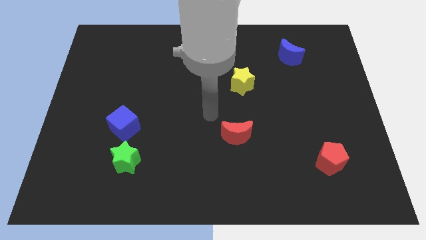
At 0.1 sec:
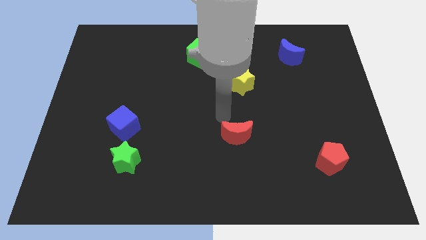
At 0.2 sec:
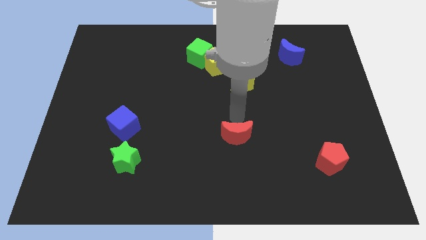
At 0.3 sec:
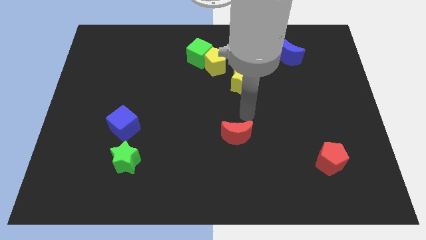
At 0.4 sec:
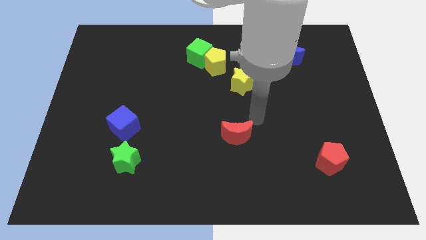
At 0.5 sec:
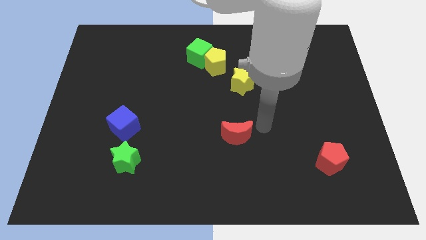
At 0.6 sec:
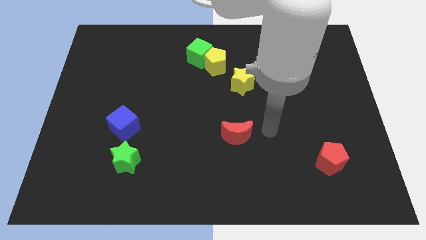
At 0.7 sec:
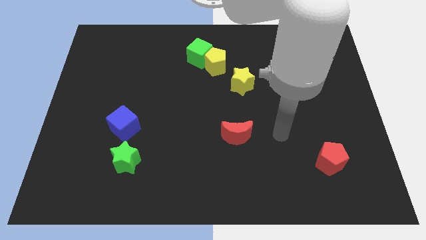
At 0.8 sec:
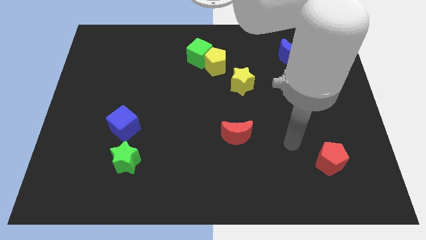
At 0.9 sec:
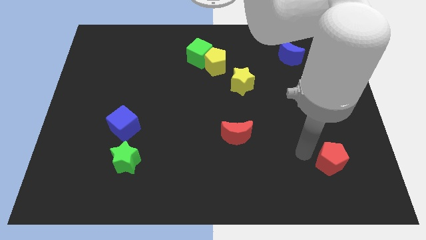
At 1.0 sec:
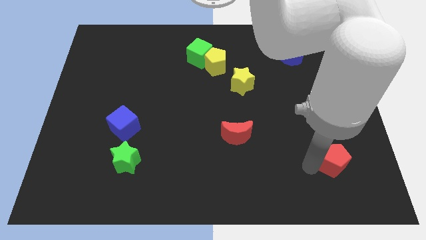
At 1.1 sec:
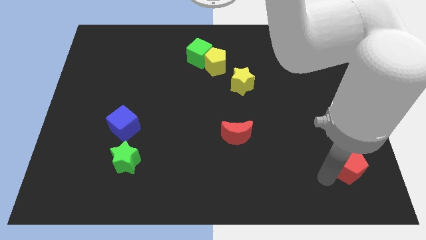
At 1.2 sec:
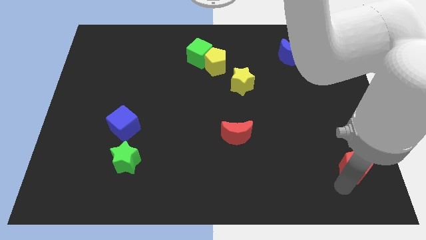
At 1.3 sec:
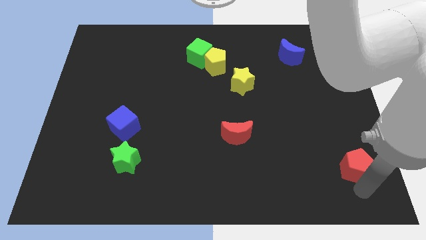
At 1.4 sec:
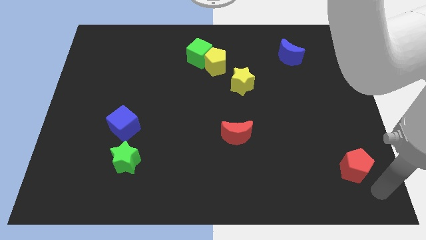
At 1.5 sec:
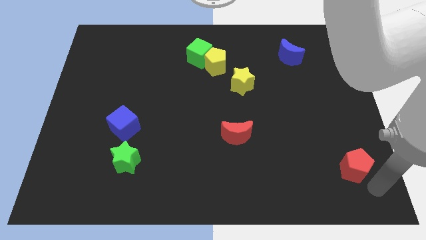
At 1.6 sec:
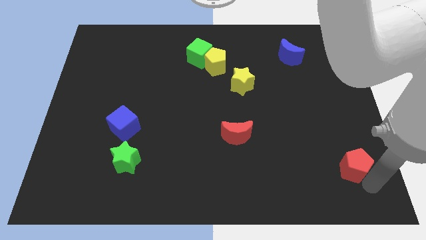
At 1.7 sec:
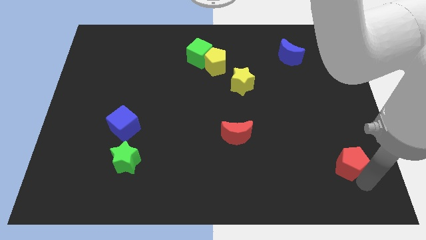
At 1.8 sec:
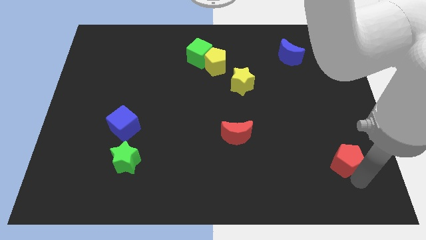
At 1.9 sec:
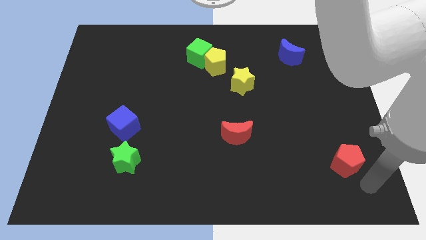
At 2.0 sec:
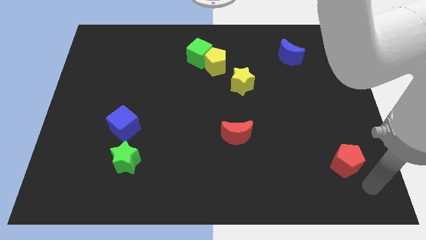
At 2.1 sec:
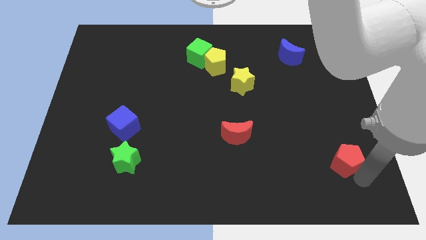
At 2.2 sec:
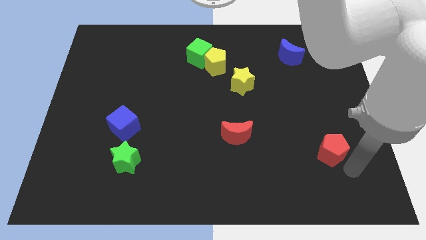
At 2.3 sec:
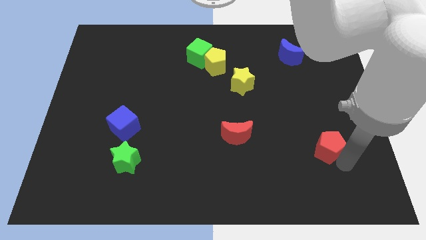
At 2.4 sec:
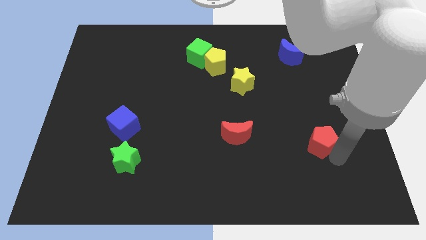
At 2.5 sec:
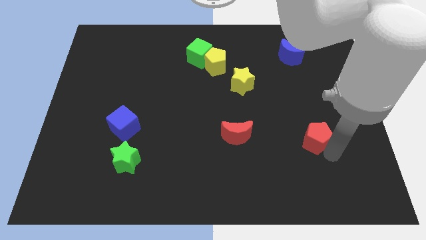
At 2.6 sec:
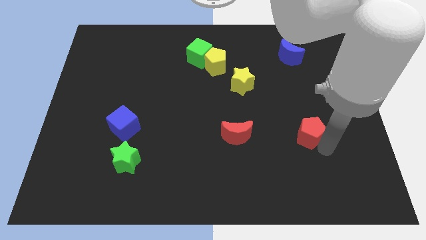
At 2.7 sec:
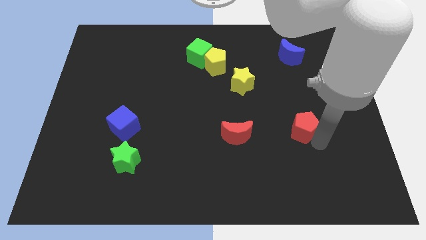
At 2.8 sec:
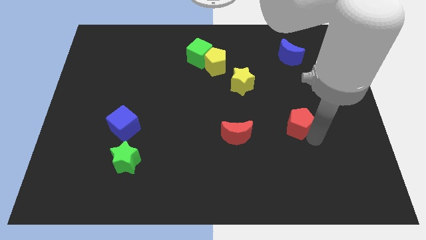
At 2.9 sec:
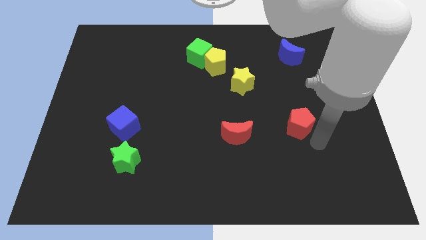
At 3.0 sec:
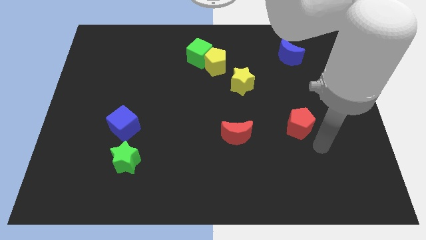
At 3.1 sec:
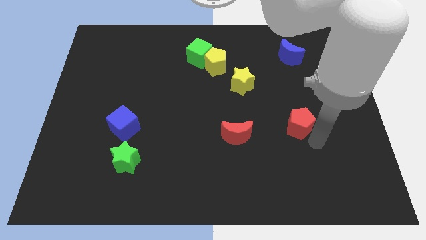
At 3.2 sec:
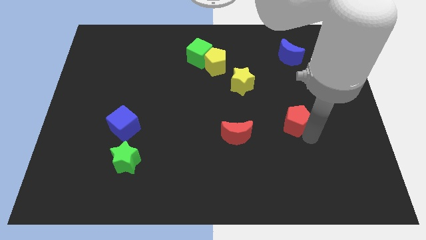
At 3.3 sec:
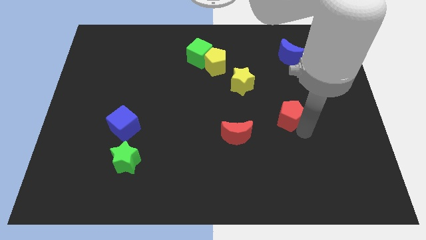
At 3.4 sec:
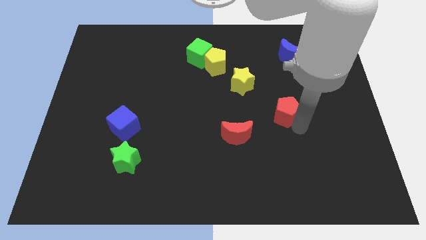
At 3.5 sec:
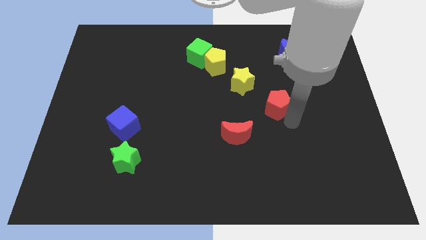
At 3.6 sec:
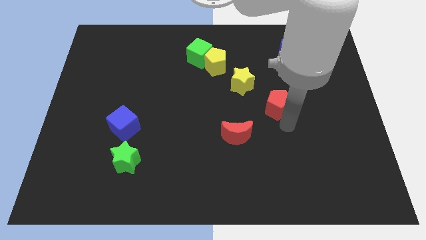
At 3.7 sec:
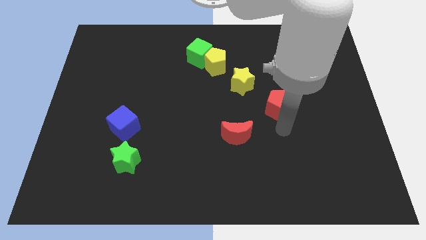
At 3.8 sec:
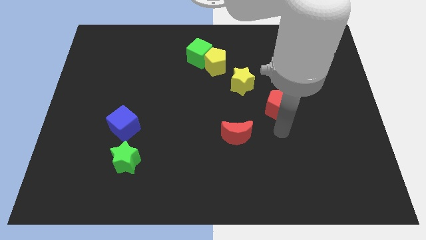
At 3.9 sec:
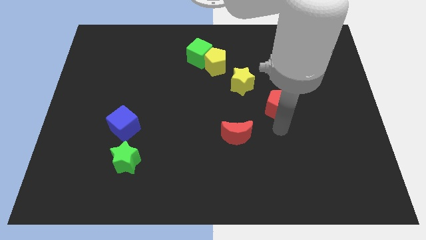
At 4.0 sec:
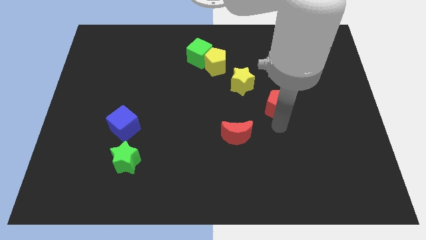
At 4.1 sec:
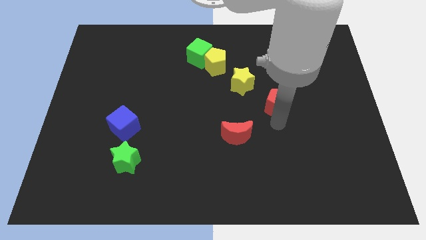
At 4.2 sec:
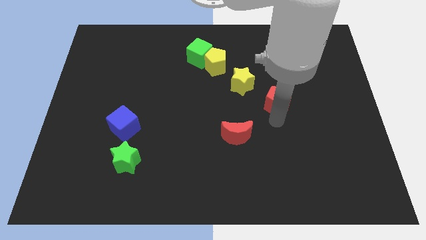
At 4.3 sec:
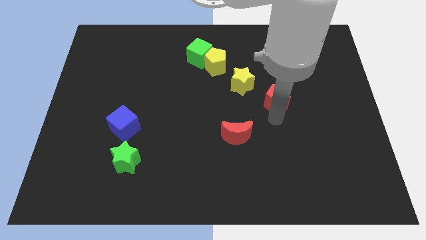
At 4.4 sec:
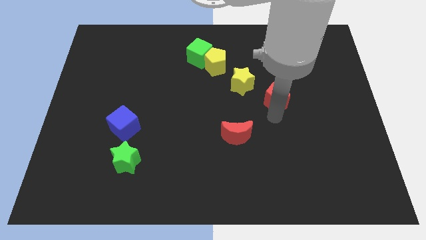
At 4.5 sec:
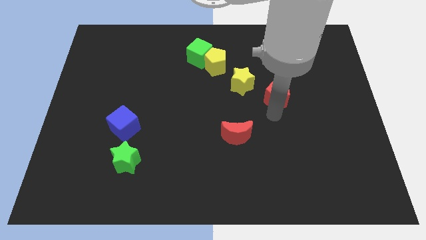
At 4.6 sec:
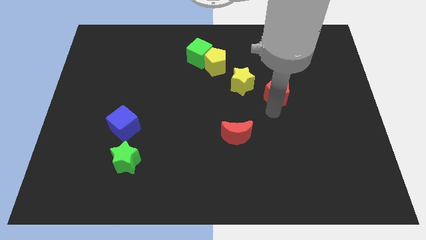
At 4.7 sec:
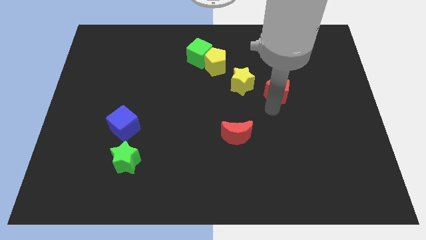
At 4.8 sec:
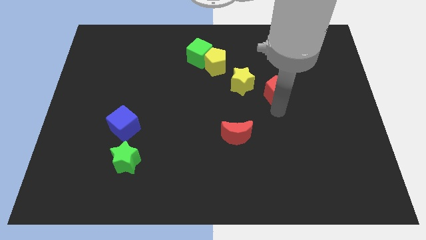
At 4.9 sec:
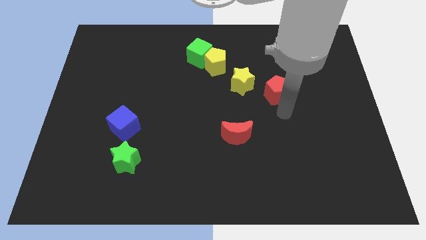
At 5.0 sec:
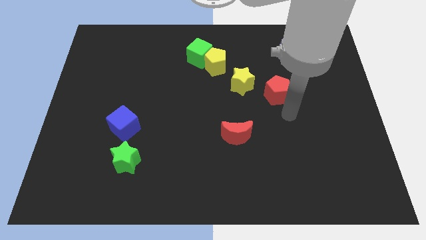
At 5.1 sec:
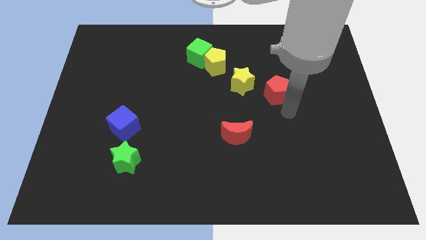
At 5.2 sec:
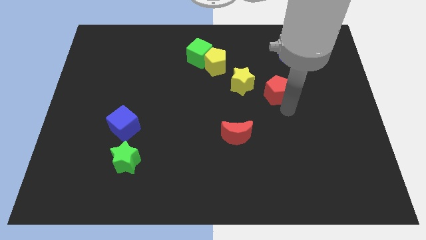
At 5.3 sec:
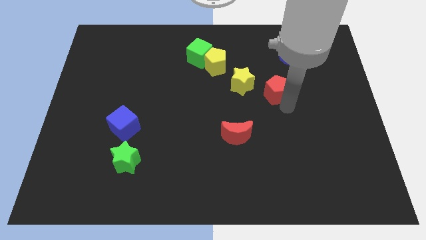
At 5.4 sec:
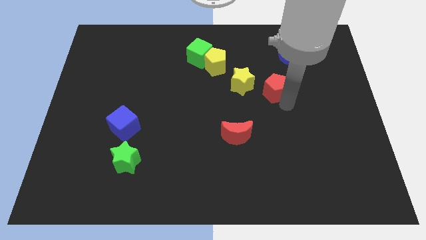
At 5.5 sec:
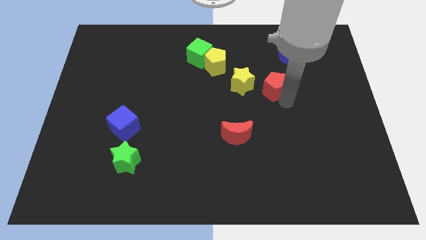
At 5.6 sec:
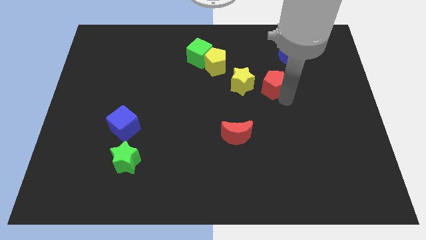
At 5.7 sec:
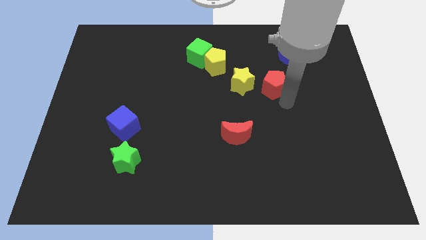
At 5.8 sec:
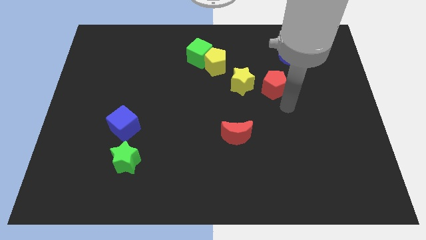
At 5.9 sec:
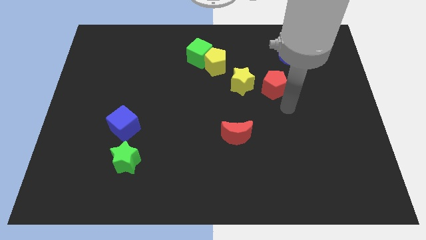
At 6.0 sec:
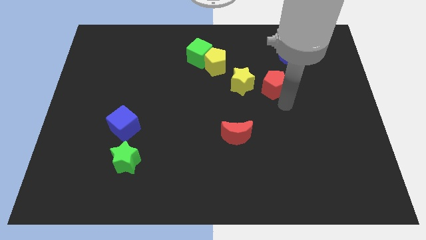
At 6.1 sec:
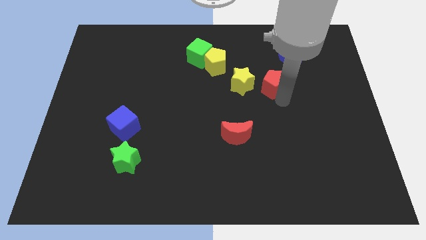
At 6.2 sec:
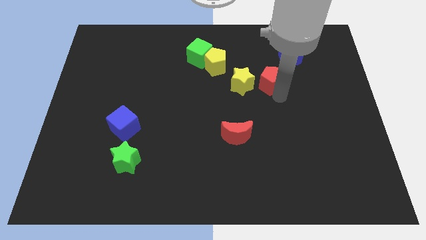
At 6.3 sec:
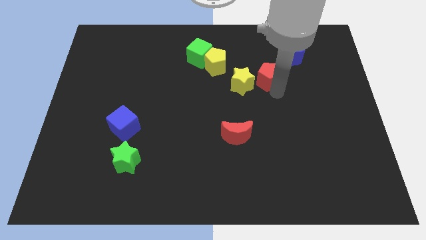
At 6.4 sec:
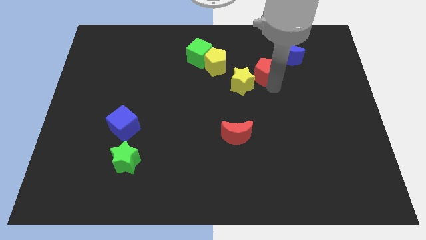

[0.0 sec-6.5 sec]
push the red pentagon just right of the yellow pentagon
